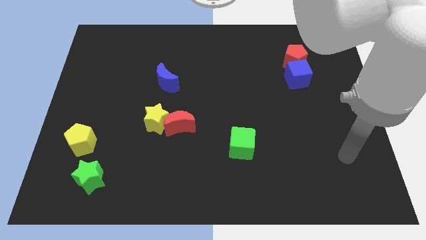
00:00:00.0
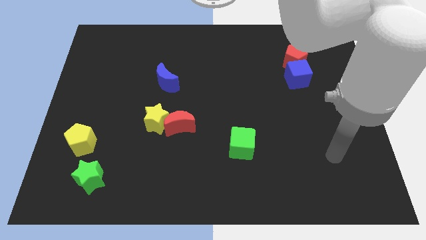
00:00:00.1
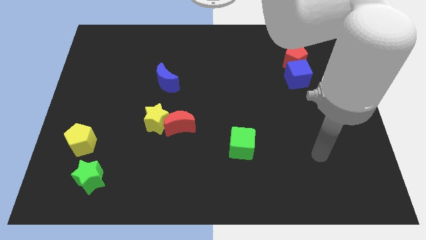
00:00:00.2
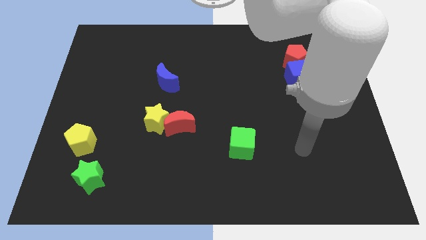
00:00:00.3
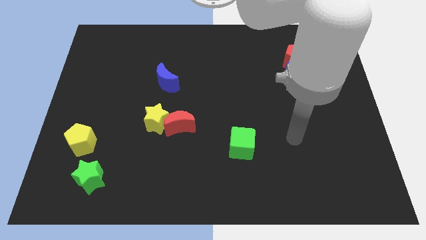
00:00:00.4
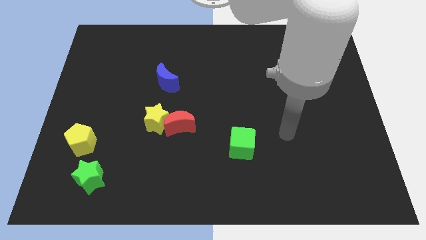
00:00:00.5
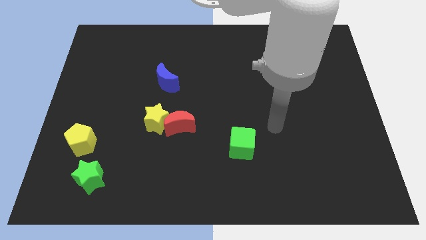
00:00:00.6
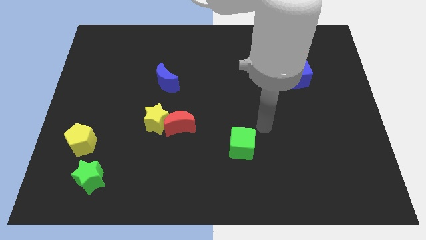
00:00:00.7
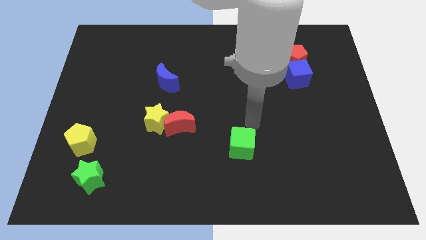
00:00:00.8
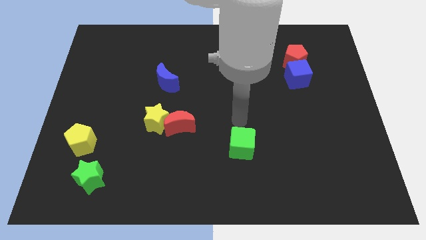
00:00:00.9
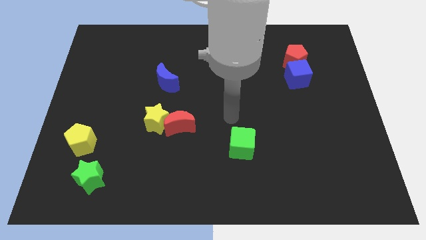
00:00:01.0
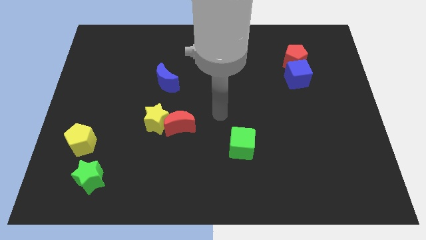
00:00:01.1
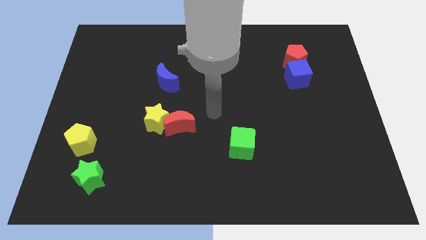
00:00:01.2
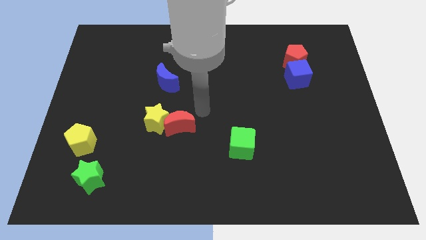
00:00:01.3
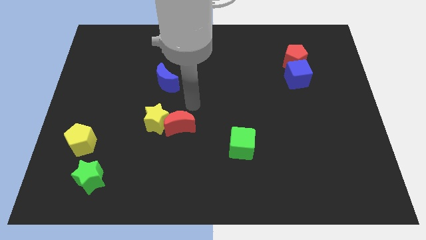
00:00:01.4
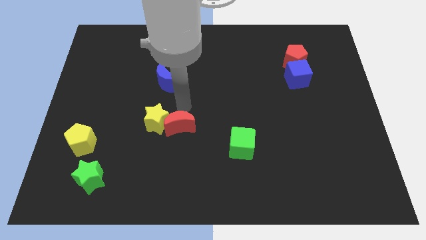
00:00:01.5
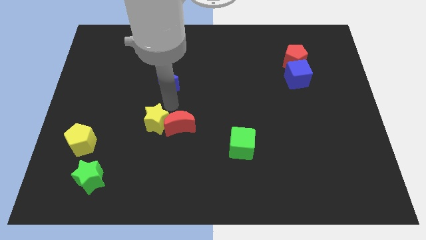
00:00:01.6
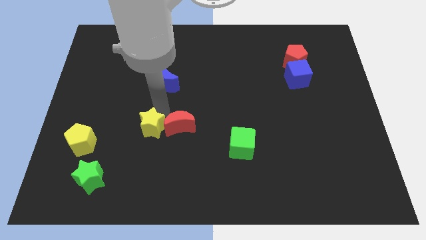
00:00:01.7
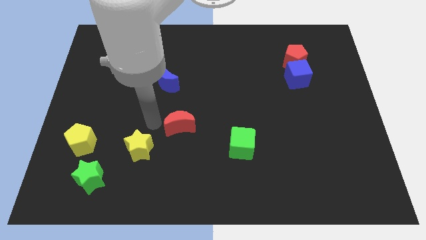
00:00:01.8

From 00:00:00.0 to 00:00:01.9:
separate the red moon from the yellow star

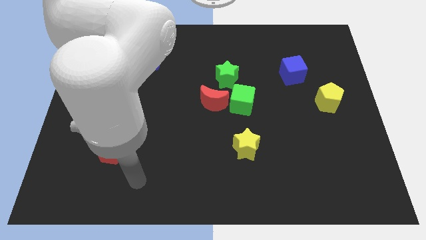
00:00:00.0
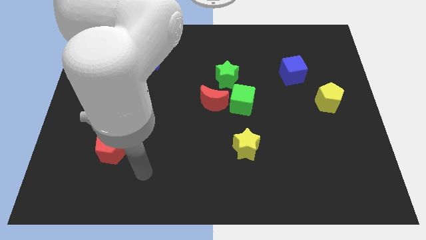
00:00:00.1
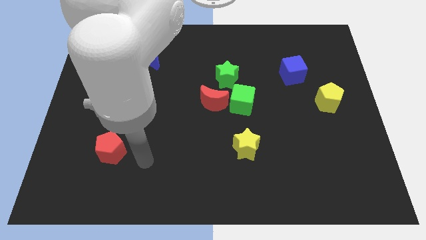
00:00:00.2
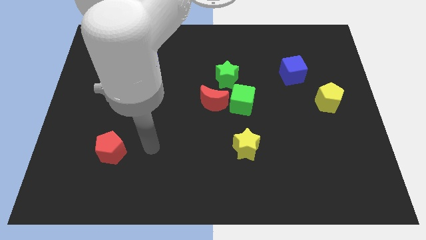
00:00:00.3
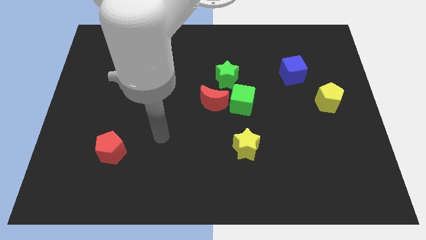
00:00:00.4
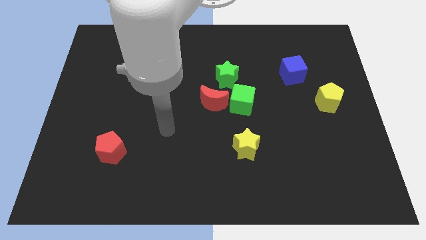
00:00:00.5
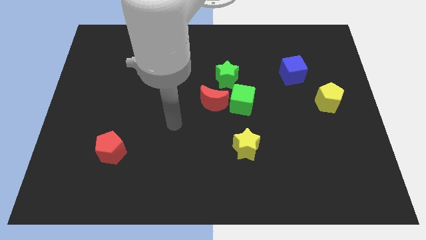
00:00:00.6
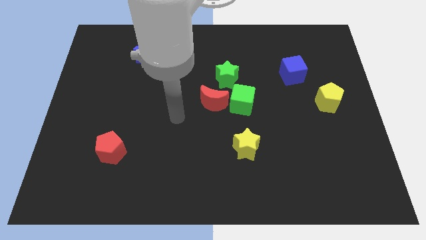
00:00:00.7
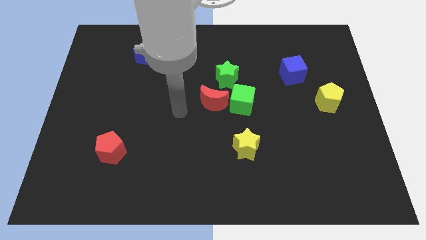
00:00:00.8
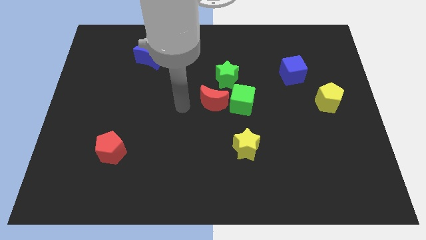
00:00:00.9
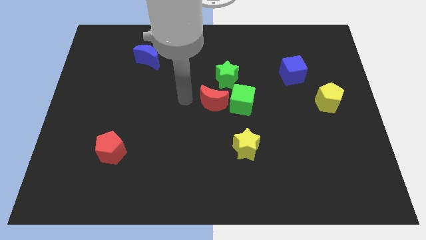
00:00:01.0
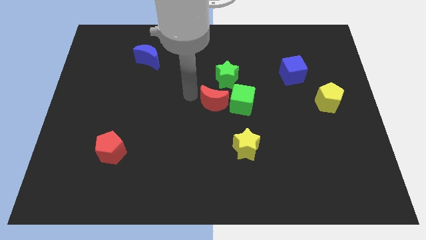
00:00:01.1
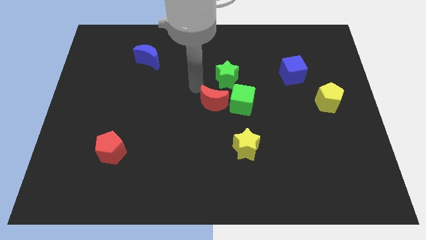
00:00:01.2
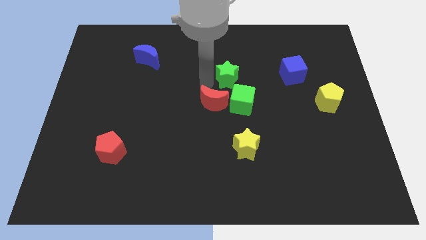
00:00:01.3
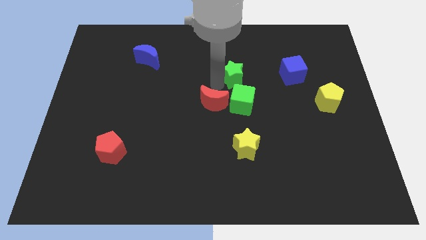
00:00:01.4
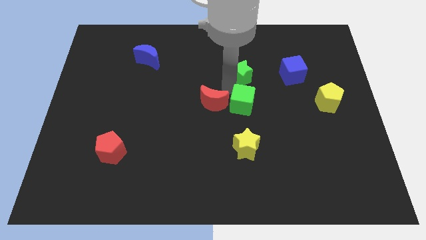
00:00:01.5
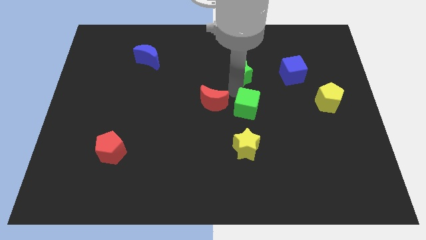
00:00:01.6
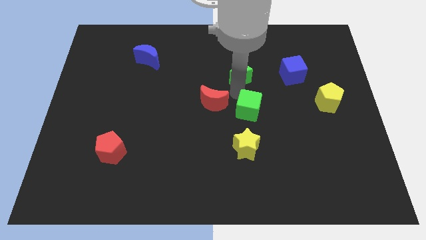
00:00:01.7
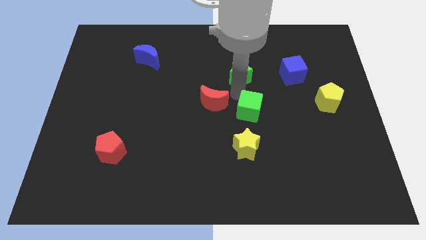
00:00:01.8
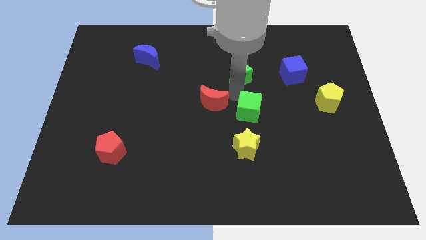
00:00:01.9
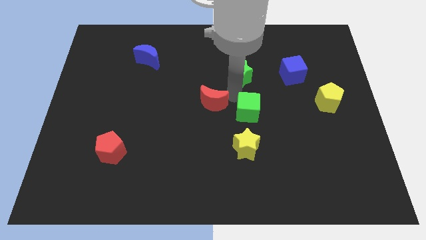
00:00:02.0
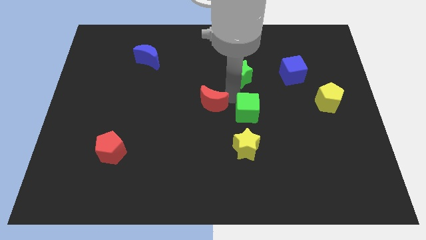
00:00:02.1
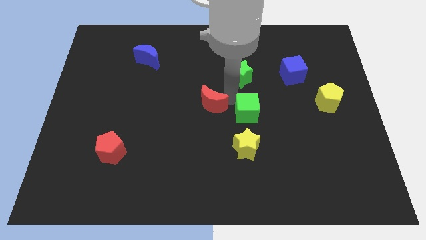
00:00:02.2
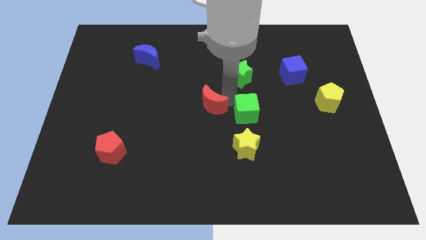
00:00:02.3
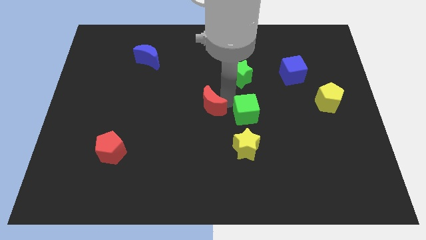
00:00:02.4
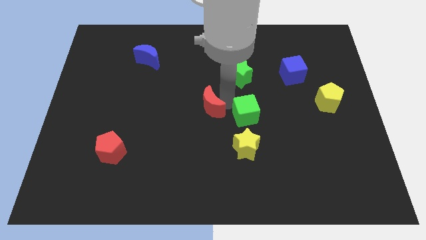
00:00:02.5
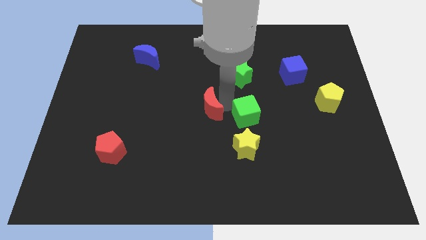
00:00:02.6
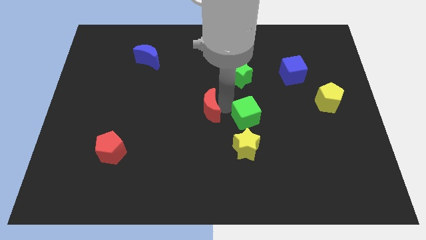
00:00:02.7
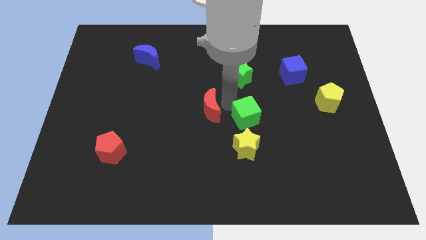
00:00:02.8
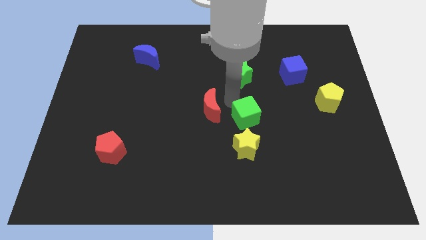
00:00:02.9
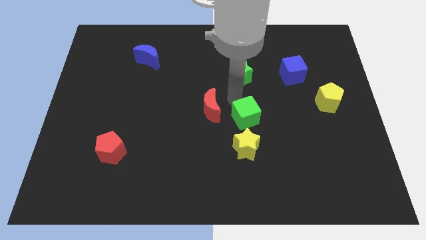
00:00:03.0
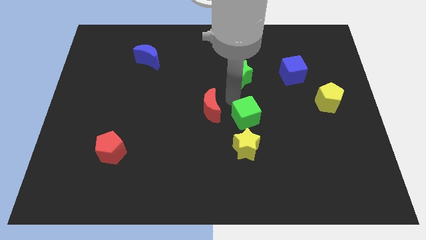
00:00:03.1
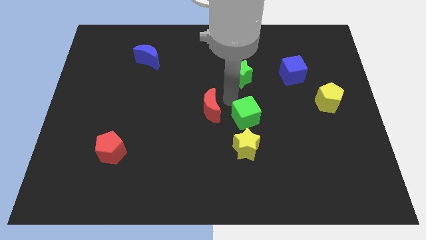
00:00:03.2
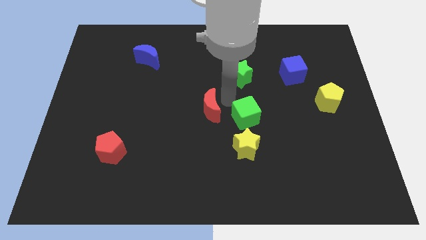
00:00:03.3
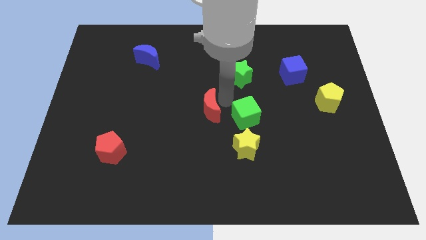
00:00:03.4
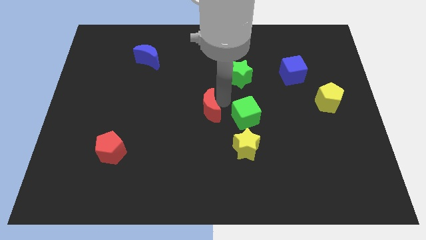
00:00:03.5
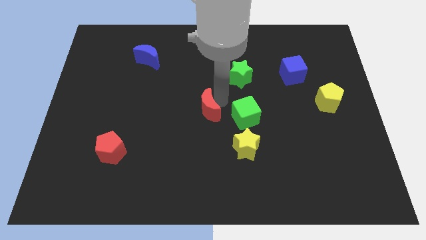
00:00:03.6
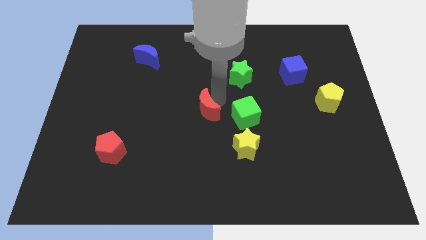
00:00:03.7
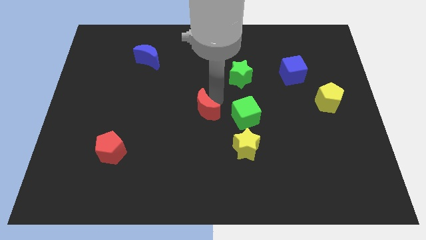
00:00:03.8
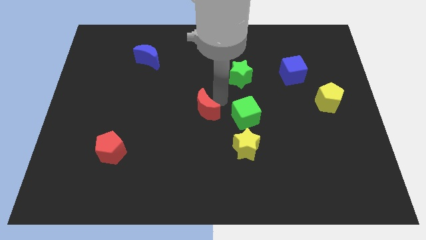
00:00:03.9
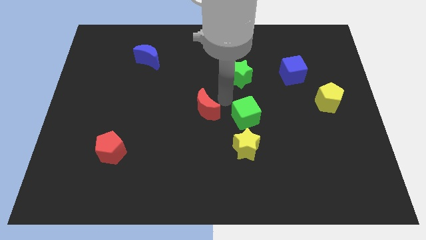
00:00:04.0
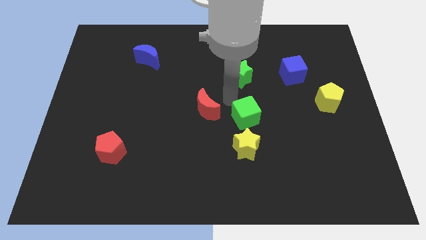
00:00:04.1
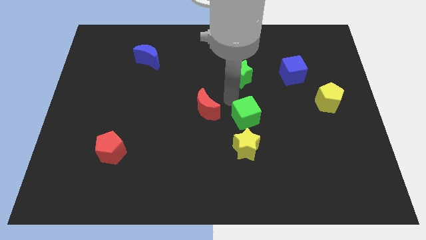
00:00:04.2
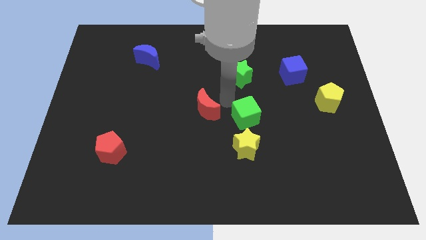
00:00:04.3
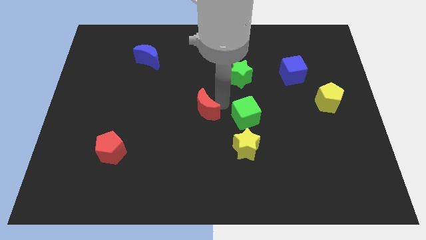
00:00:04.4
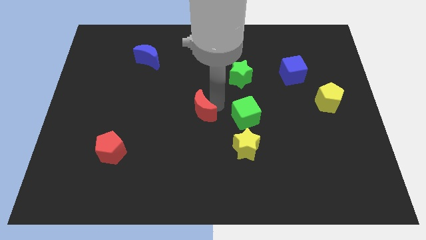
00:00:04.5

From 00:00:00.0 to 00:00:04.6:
pull the red moon apart from the green cube and green star

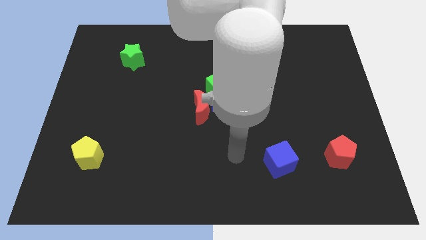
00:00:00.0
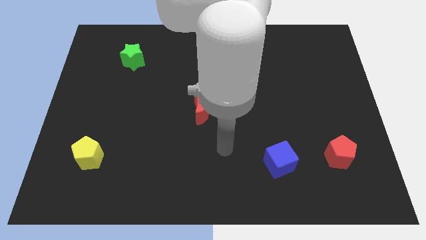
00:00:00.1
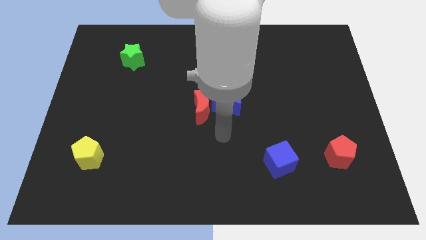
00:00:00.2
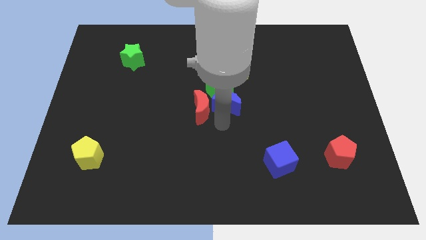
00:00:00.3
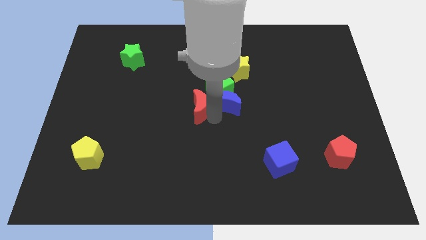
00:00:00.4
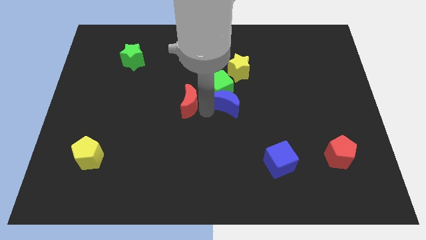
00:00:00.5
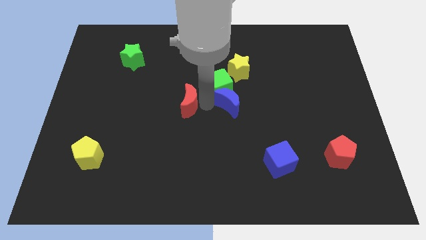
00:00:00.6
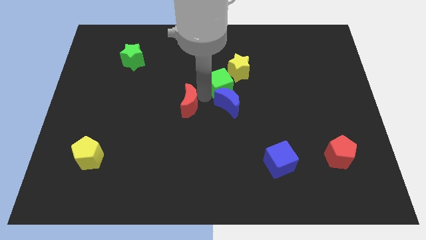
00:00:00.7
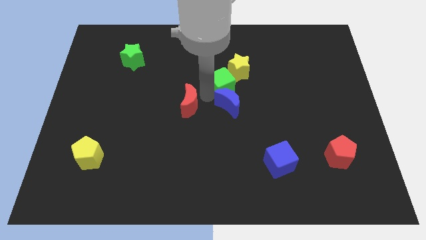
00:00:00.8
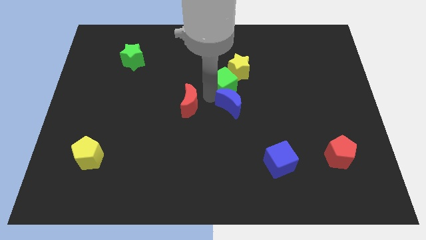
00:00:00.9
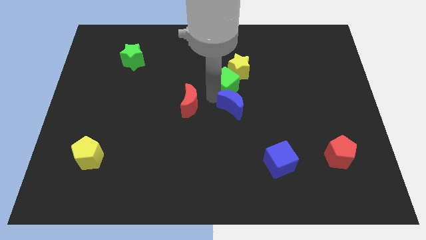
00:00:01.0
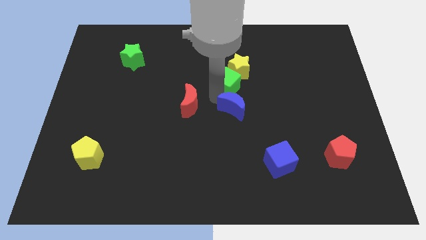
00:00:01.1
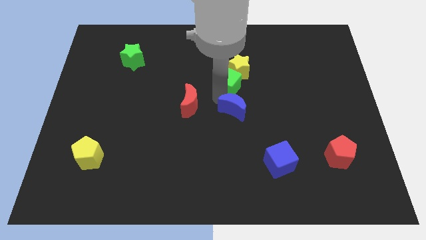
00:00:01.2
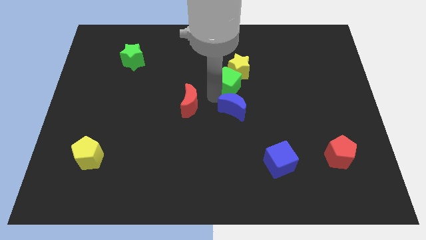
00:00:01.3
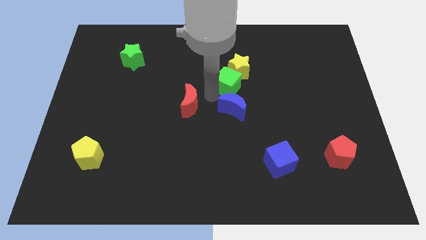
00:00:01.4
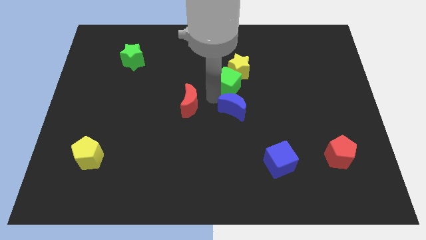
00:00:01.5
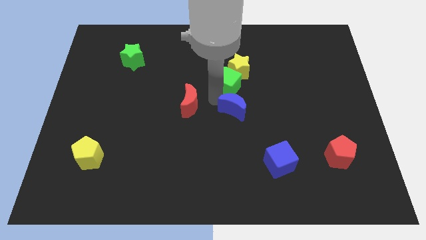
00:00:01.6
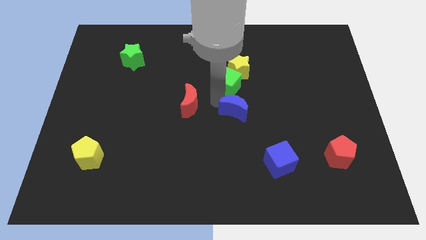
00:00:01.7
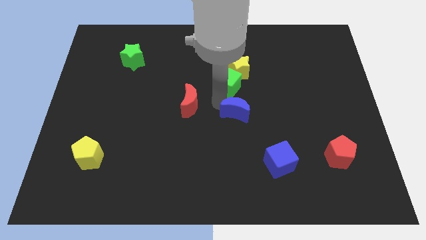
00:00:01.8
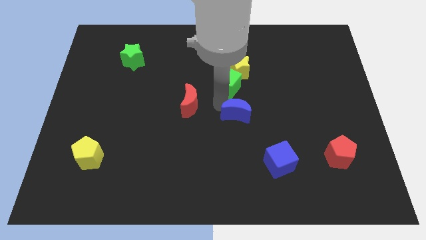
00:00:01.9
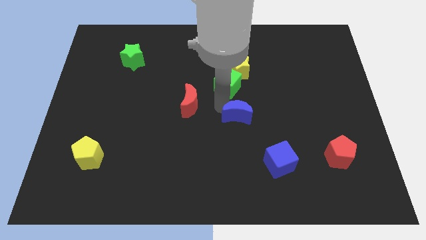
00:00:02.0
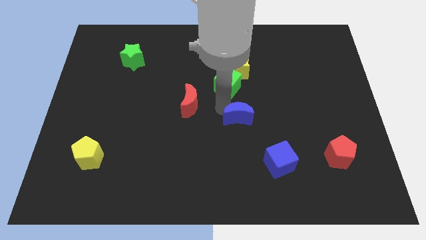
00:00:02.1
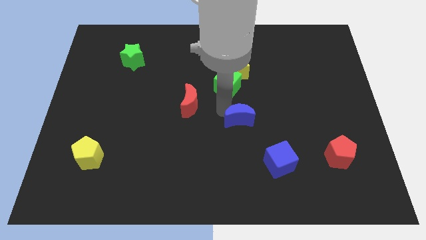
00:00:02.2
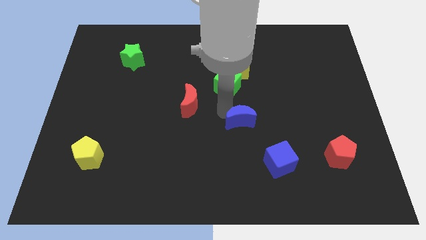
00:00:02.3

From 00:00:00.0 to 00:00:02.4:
pull the blue moon apart from the green cube and red moon

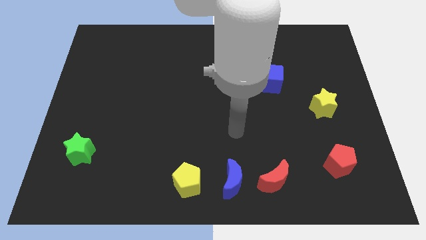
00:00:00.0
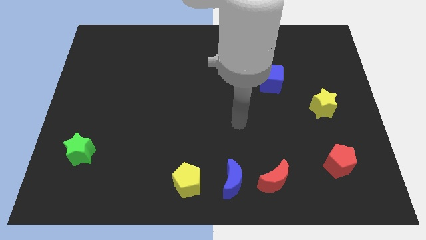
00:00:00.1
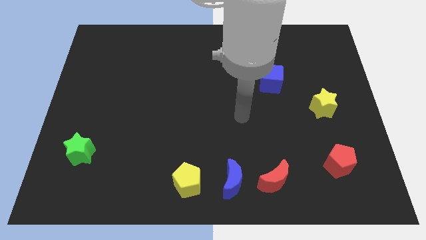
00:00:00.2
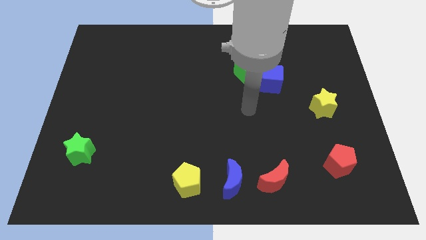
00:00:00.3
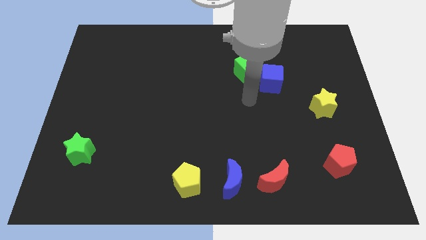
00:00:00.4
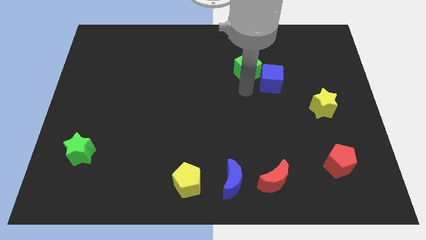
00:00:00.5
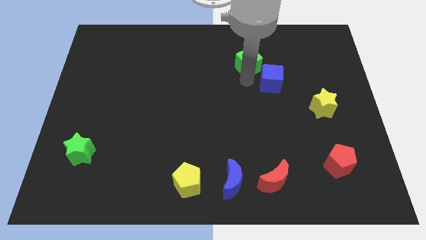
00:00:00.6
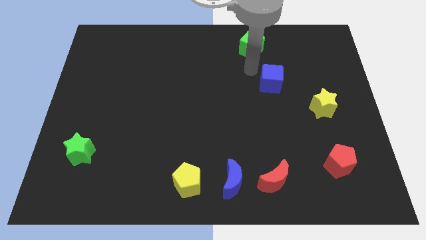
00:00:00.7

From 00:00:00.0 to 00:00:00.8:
pull the blue cube apart from the green cube
